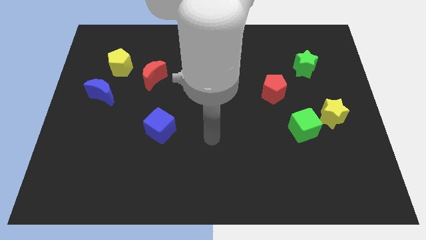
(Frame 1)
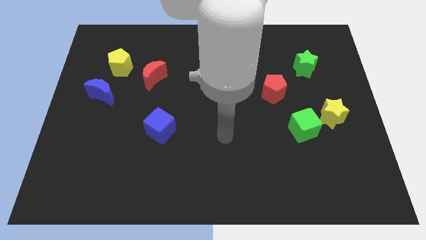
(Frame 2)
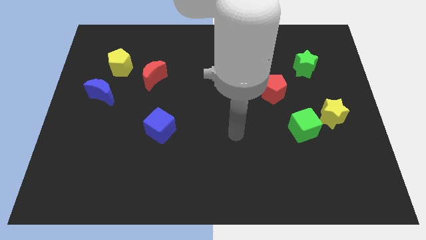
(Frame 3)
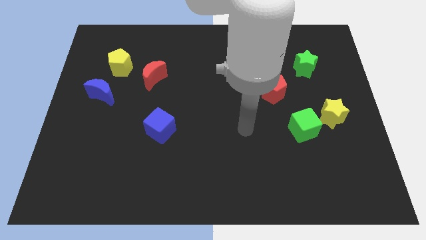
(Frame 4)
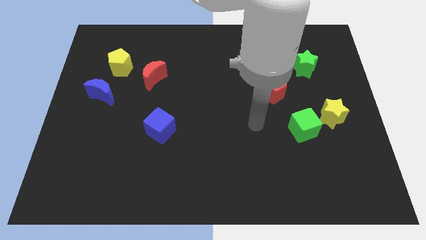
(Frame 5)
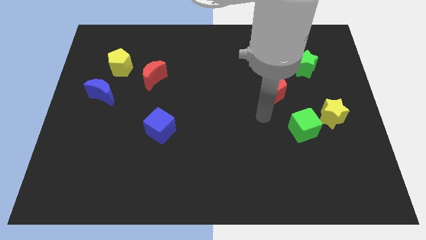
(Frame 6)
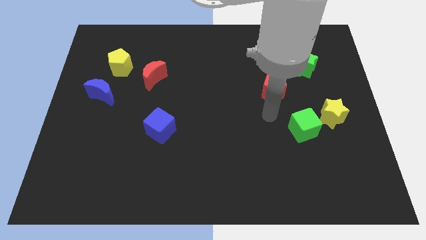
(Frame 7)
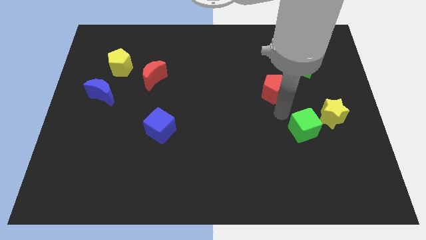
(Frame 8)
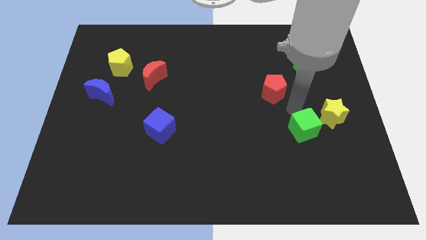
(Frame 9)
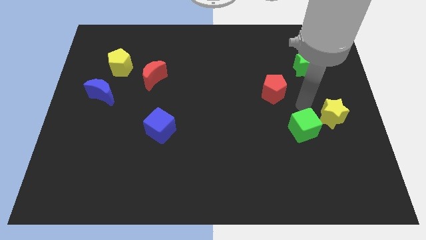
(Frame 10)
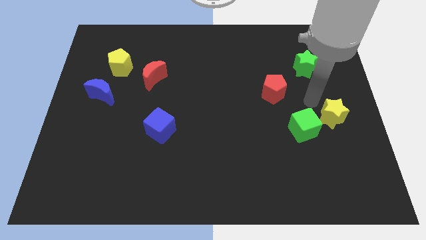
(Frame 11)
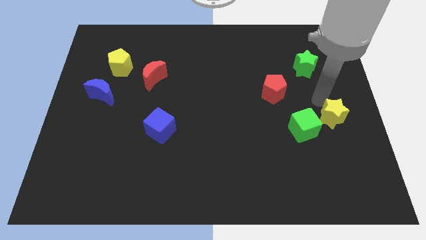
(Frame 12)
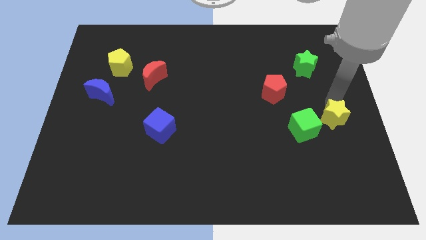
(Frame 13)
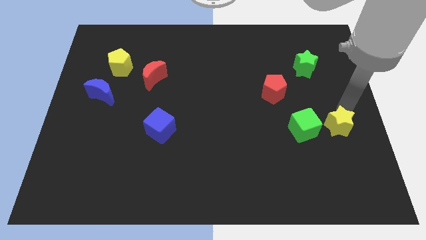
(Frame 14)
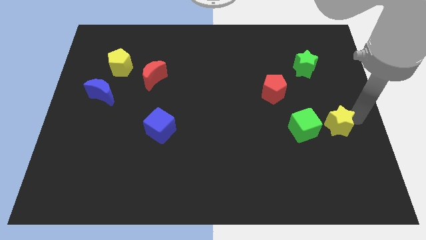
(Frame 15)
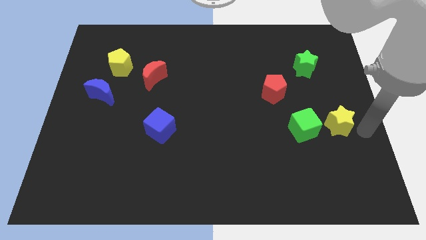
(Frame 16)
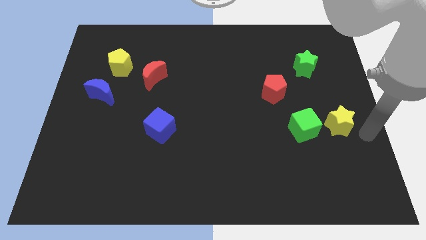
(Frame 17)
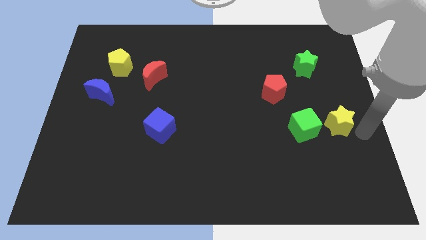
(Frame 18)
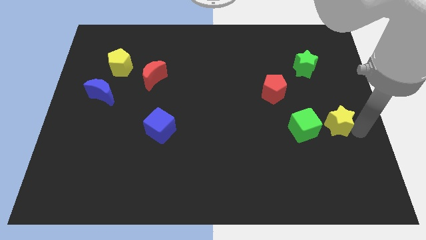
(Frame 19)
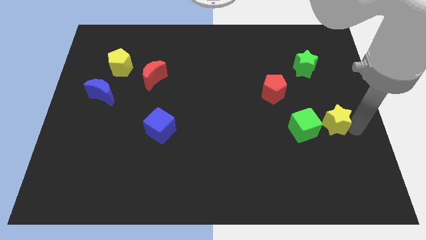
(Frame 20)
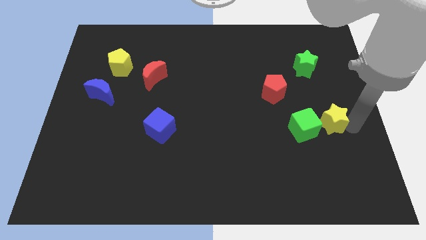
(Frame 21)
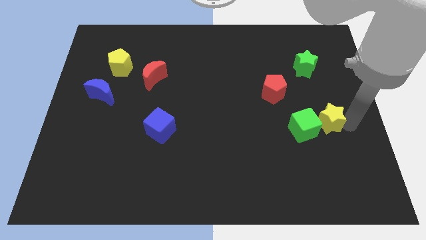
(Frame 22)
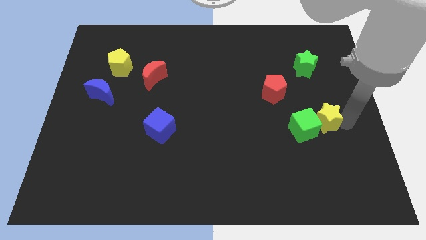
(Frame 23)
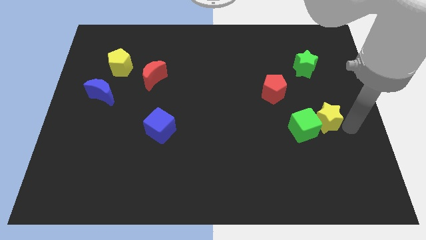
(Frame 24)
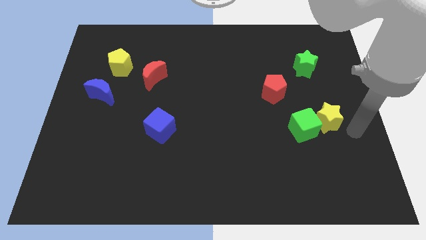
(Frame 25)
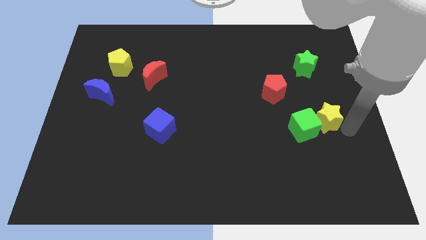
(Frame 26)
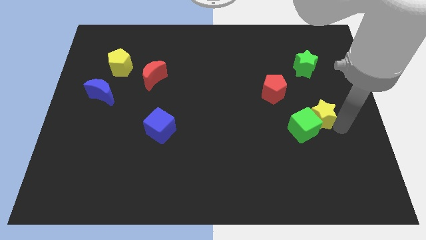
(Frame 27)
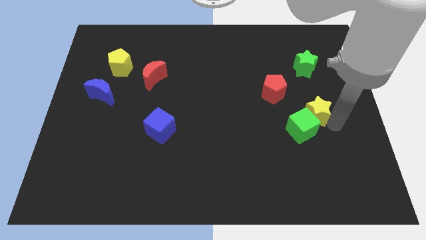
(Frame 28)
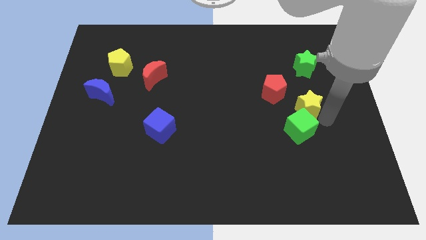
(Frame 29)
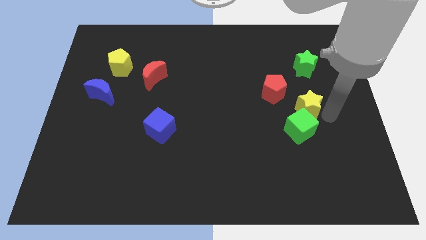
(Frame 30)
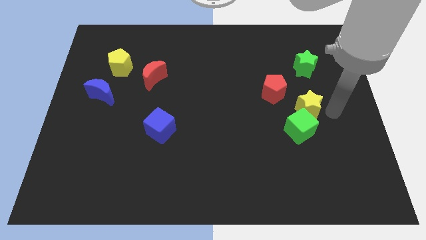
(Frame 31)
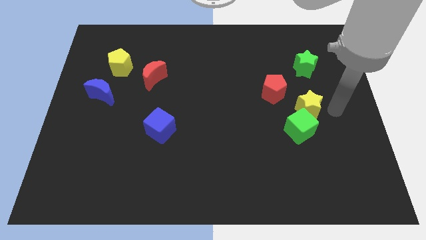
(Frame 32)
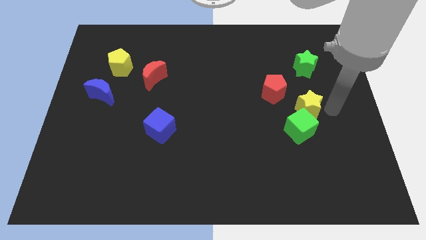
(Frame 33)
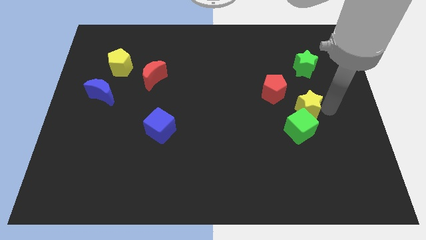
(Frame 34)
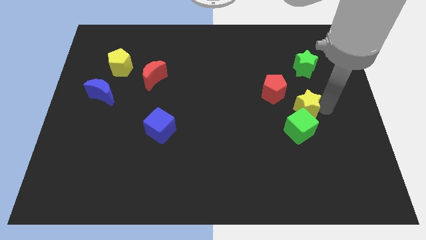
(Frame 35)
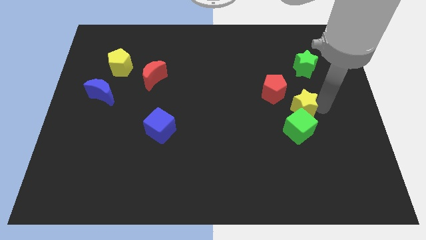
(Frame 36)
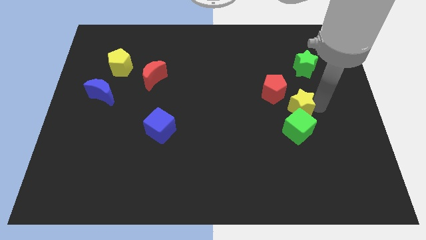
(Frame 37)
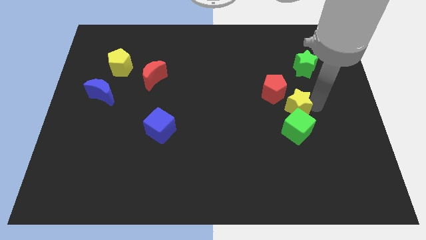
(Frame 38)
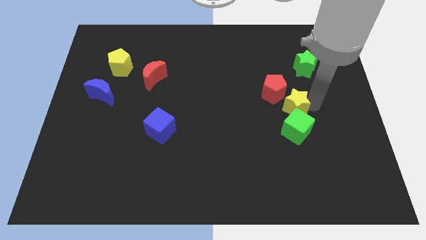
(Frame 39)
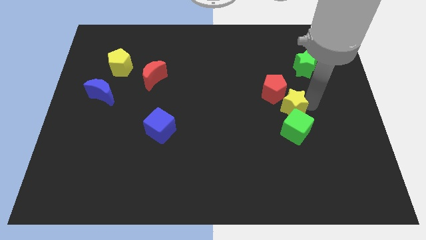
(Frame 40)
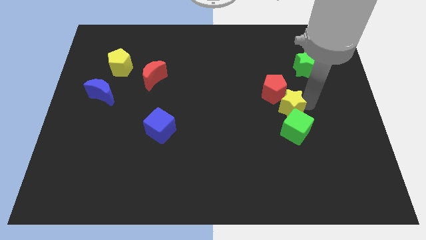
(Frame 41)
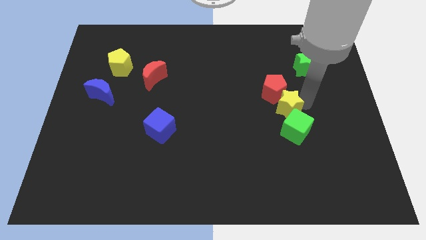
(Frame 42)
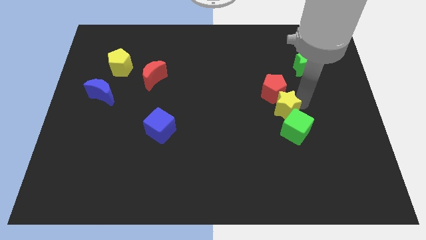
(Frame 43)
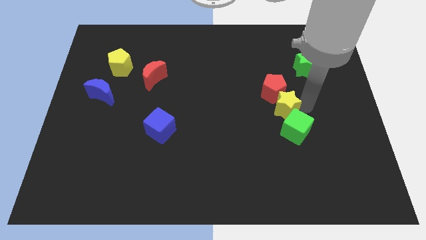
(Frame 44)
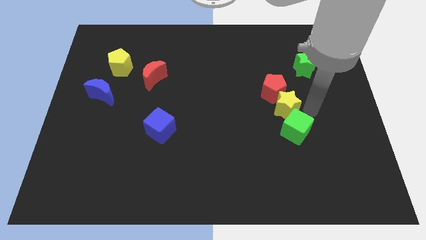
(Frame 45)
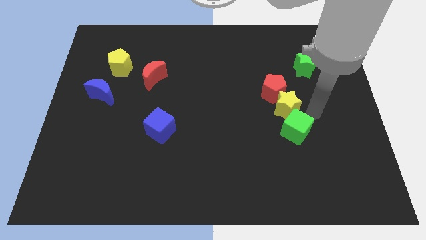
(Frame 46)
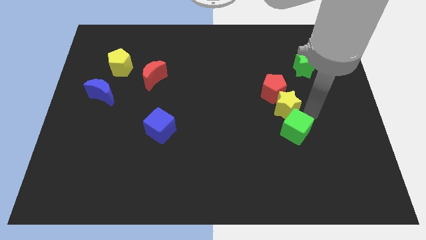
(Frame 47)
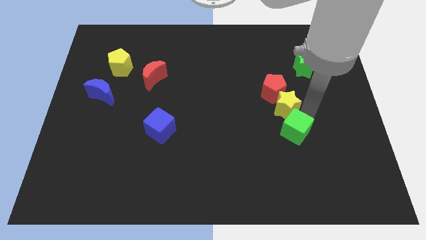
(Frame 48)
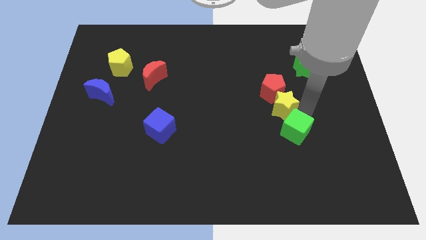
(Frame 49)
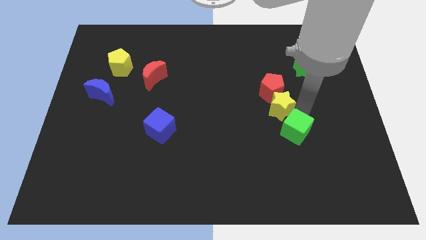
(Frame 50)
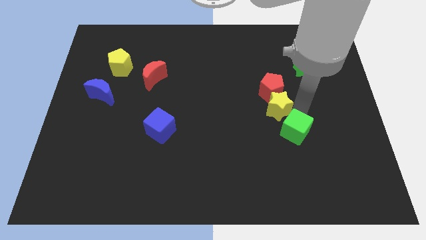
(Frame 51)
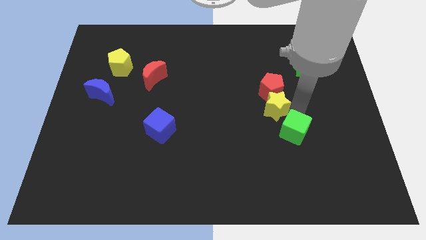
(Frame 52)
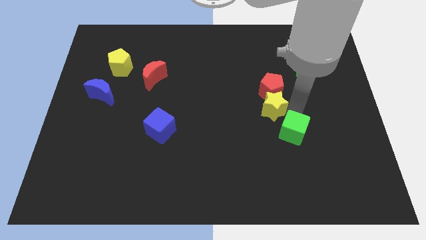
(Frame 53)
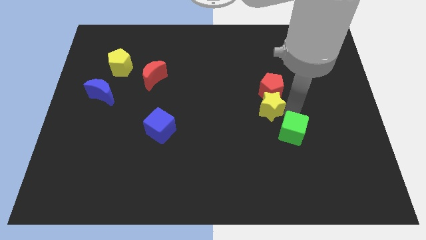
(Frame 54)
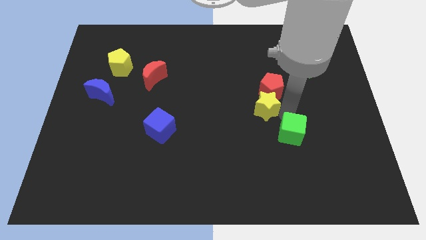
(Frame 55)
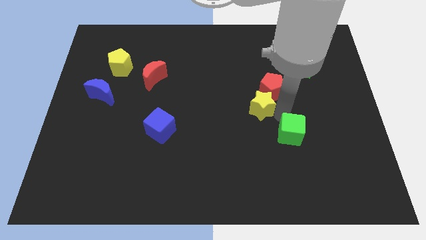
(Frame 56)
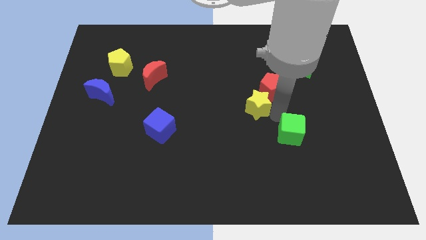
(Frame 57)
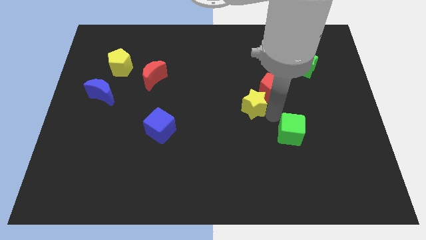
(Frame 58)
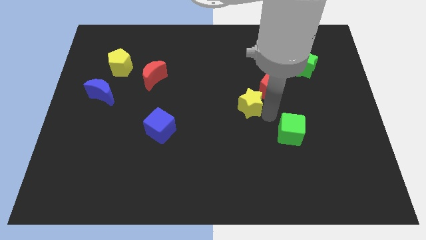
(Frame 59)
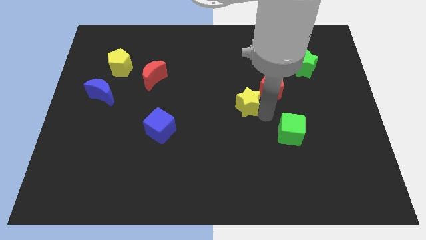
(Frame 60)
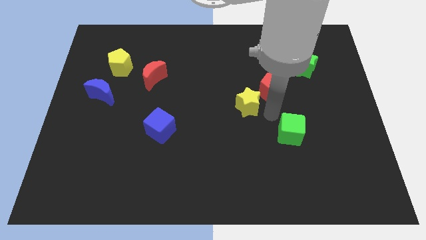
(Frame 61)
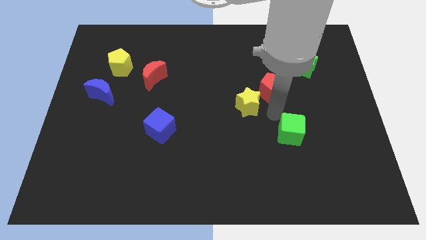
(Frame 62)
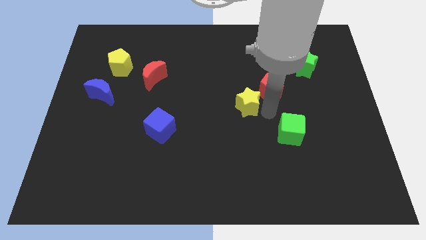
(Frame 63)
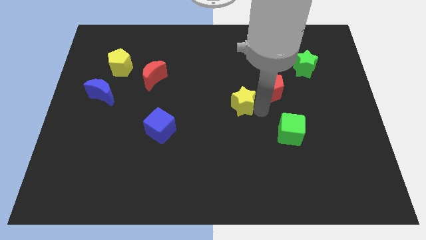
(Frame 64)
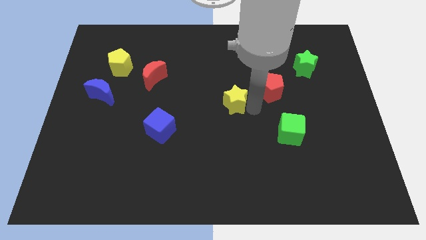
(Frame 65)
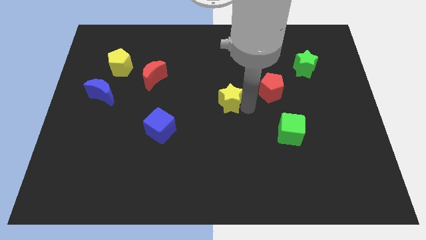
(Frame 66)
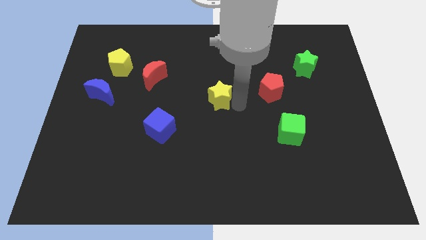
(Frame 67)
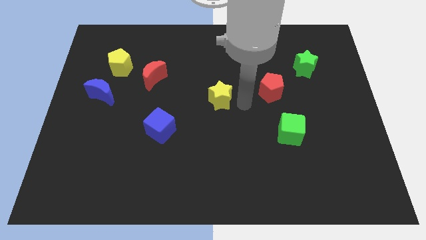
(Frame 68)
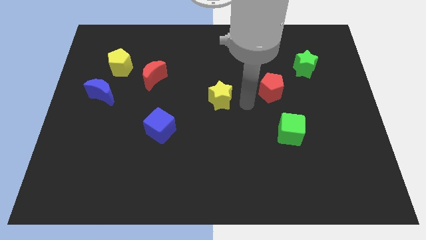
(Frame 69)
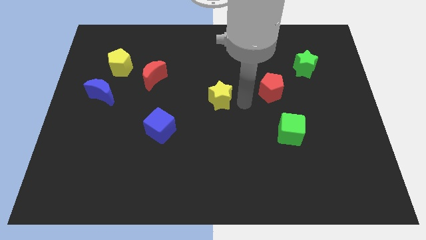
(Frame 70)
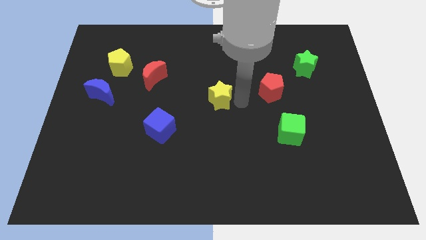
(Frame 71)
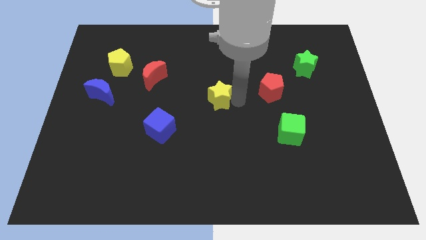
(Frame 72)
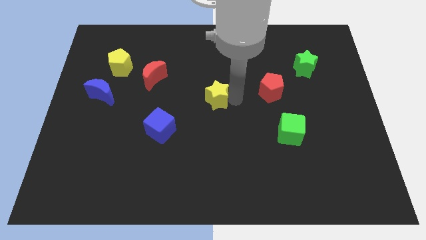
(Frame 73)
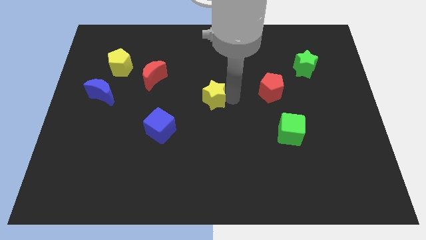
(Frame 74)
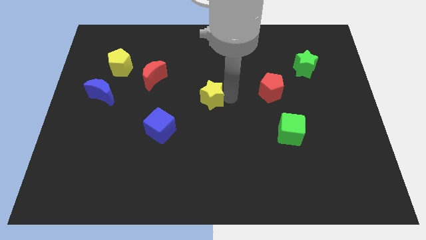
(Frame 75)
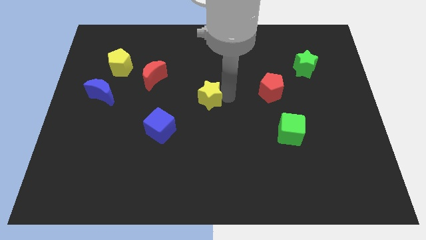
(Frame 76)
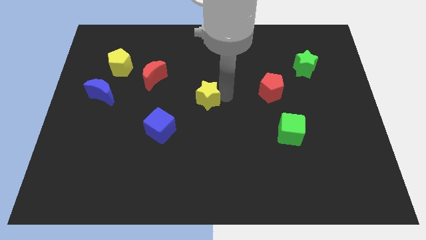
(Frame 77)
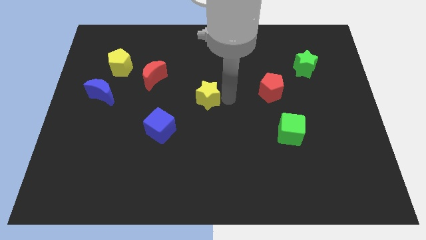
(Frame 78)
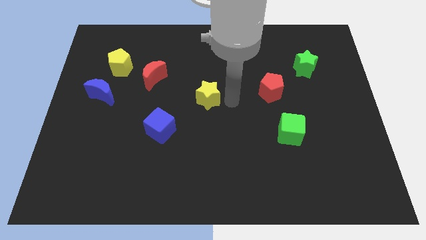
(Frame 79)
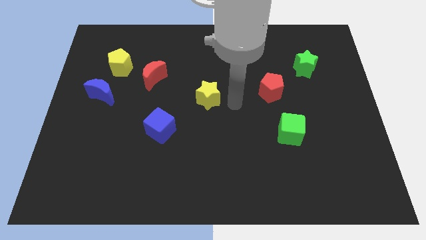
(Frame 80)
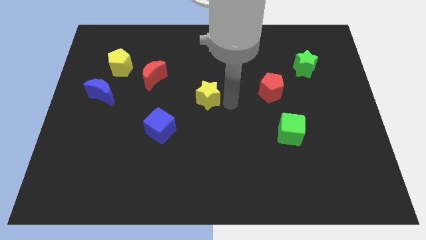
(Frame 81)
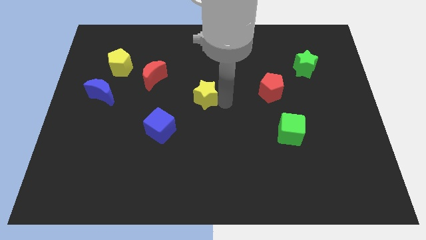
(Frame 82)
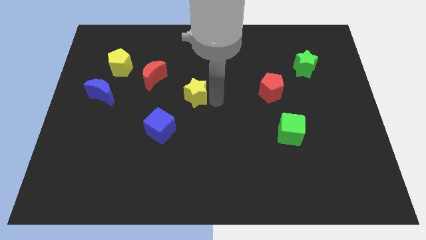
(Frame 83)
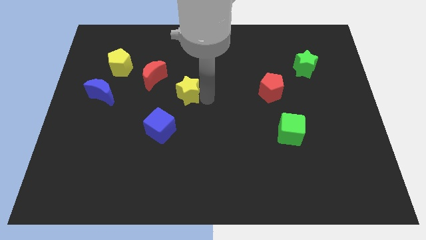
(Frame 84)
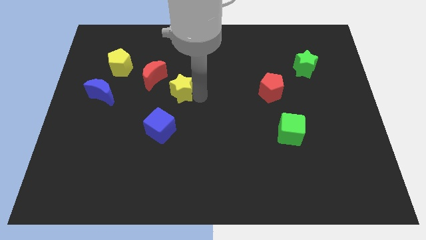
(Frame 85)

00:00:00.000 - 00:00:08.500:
slide the yellow star to the top side of the blue cube
